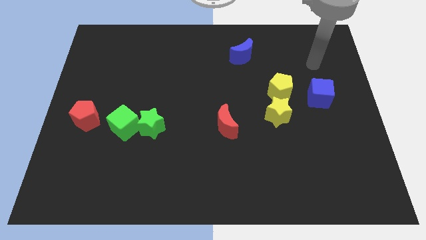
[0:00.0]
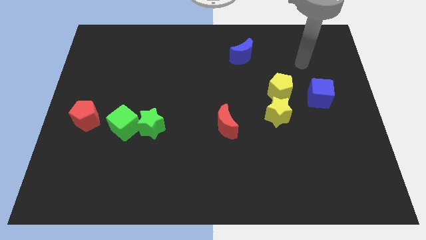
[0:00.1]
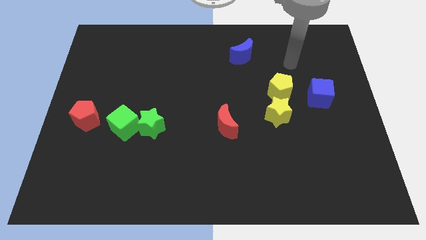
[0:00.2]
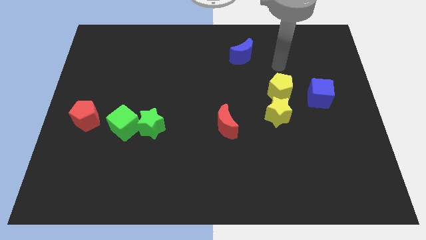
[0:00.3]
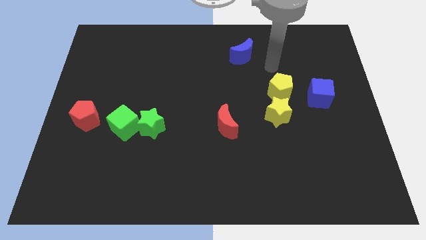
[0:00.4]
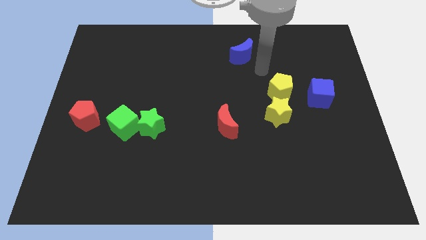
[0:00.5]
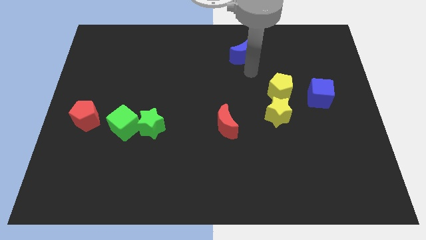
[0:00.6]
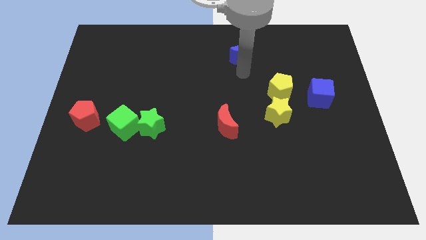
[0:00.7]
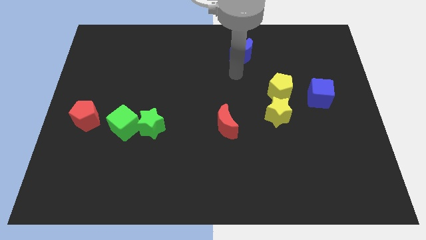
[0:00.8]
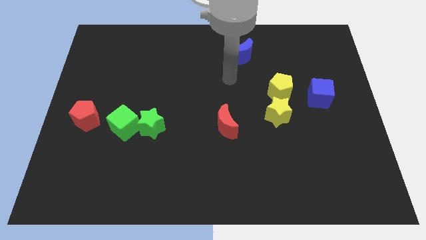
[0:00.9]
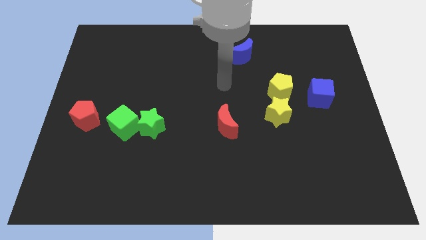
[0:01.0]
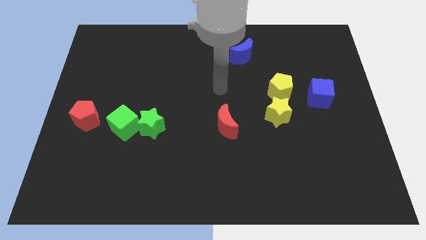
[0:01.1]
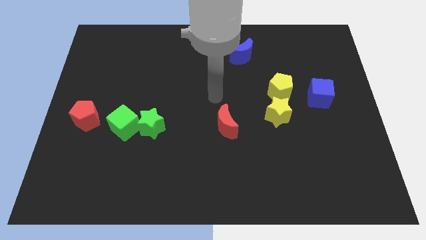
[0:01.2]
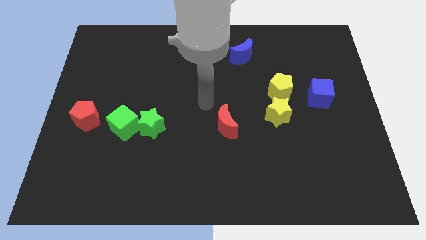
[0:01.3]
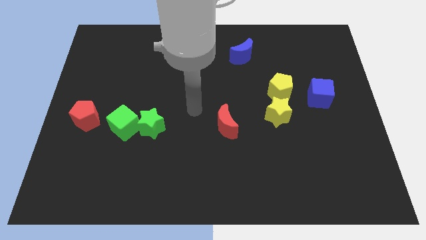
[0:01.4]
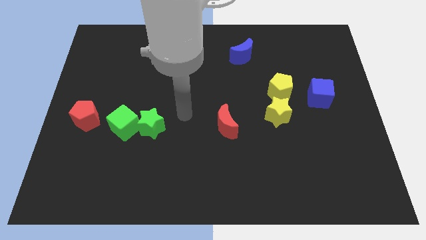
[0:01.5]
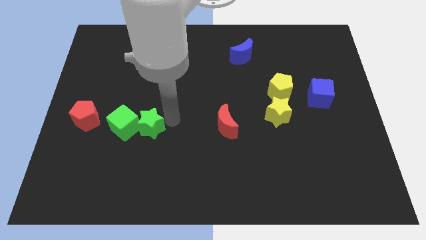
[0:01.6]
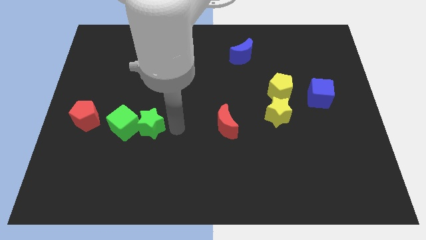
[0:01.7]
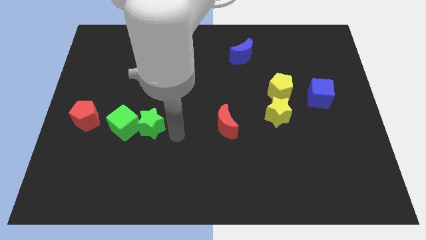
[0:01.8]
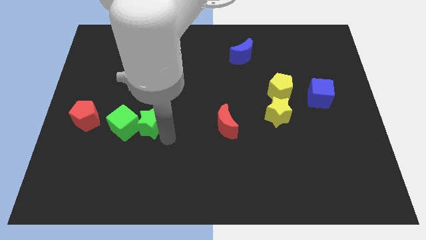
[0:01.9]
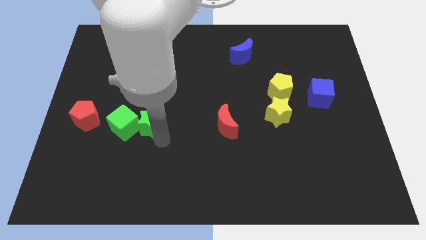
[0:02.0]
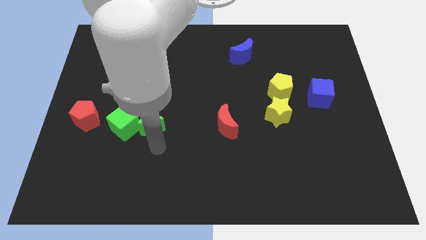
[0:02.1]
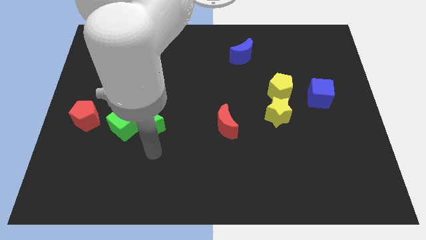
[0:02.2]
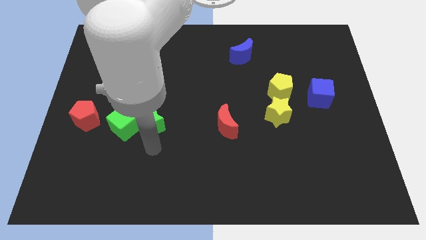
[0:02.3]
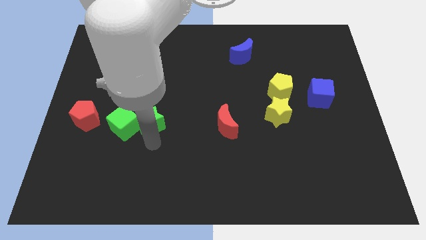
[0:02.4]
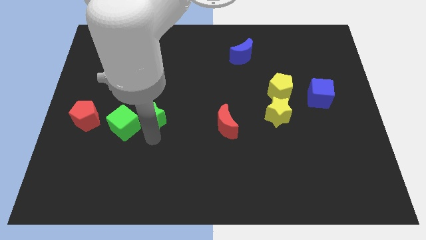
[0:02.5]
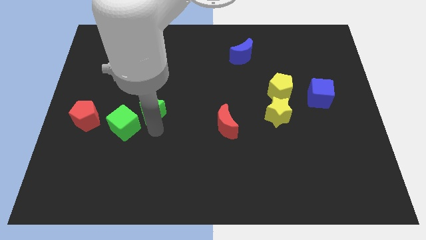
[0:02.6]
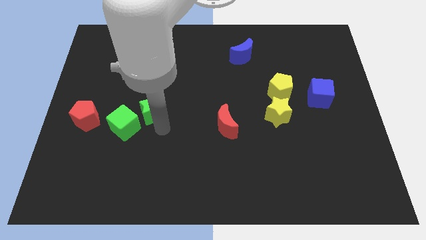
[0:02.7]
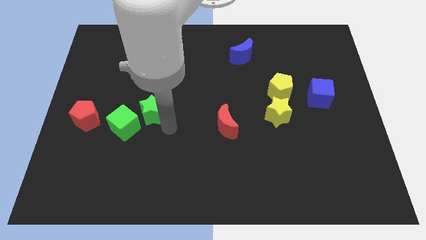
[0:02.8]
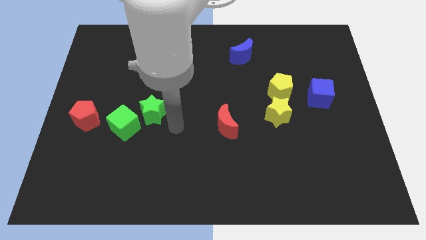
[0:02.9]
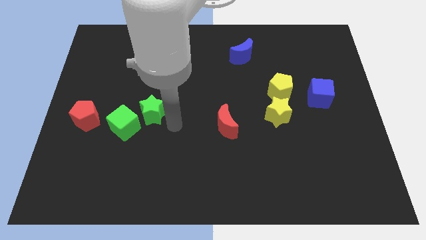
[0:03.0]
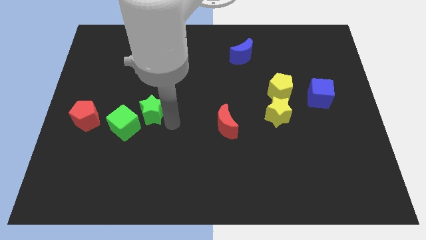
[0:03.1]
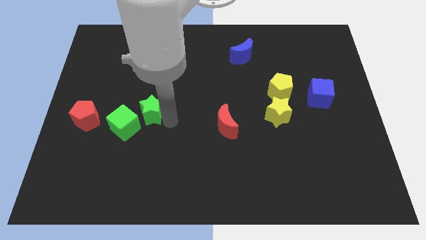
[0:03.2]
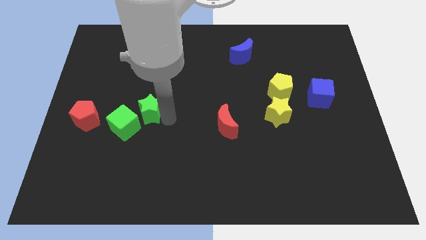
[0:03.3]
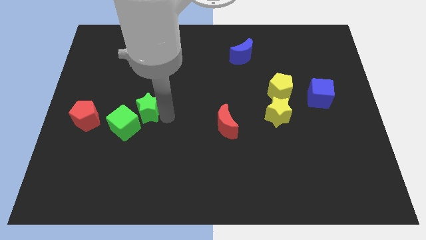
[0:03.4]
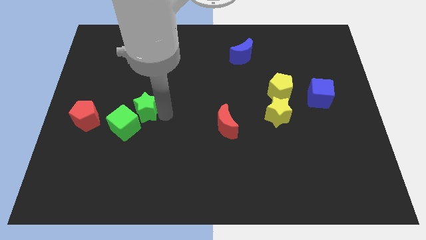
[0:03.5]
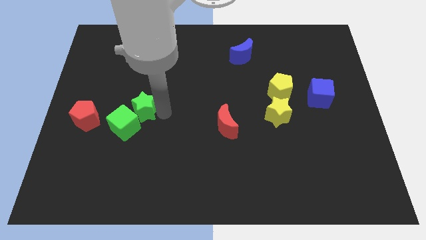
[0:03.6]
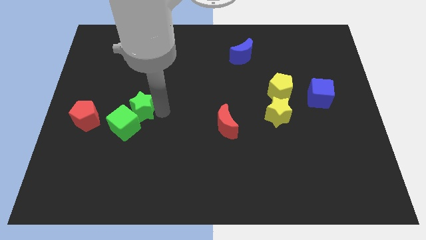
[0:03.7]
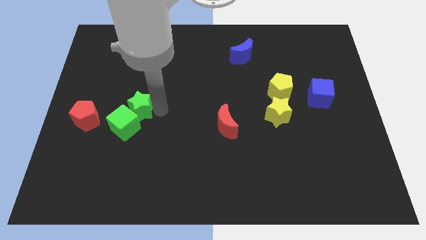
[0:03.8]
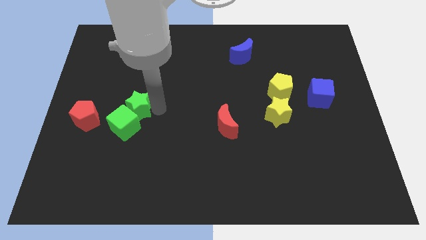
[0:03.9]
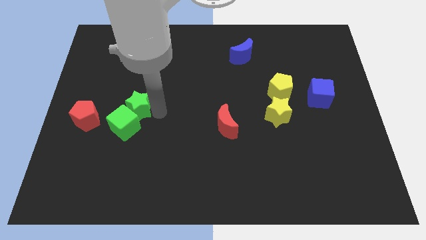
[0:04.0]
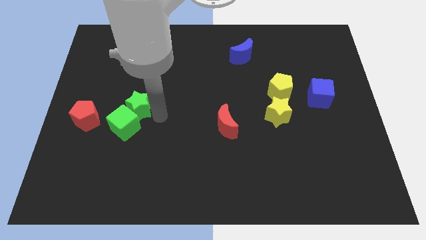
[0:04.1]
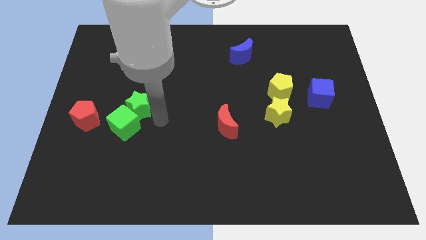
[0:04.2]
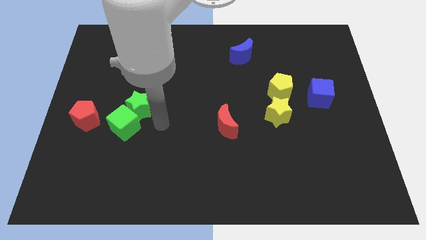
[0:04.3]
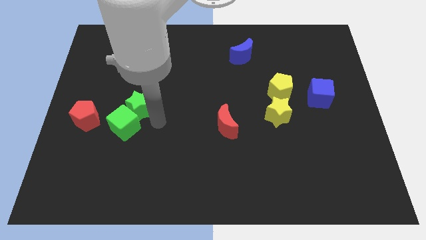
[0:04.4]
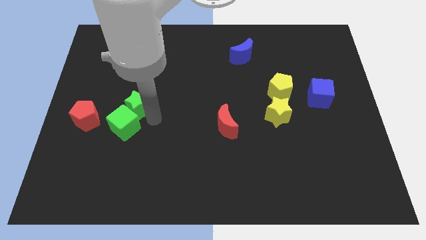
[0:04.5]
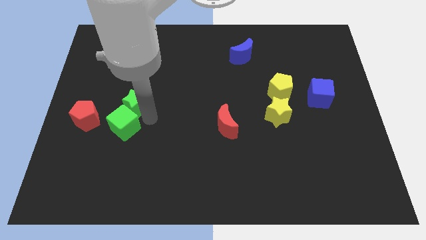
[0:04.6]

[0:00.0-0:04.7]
push the green star diagonally up and to the left somewhat

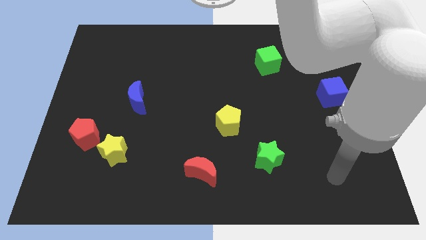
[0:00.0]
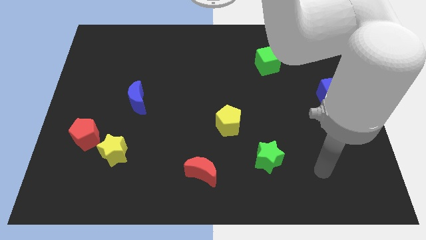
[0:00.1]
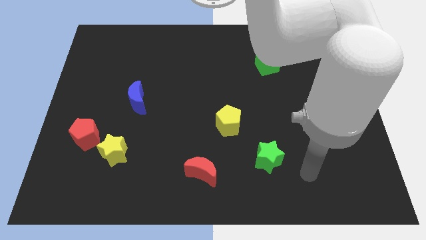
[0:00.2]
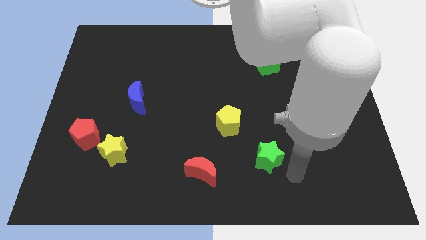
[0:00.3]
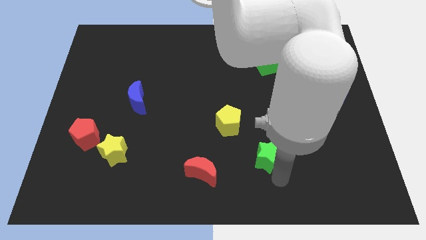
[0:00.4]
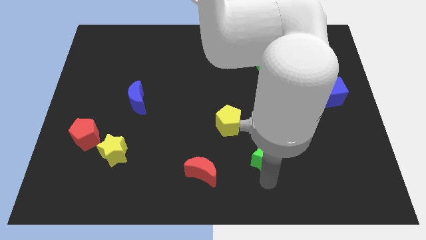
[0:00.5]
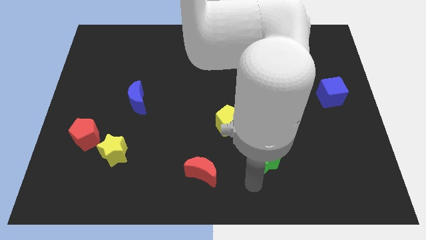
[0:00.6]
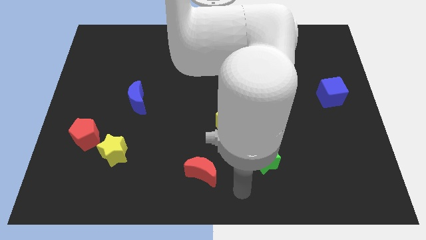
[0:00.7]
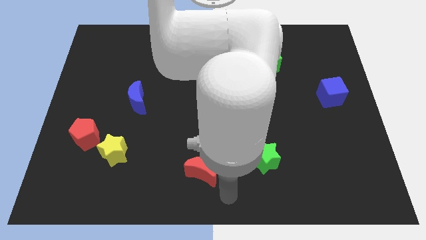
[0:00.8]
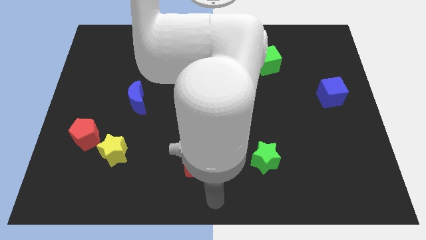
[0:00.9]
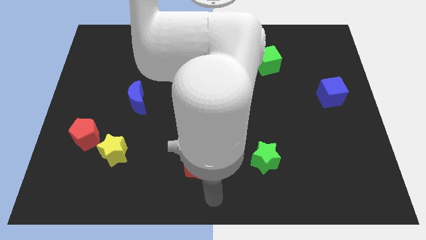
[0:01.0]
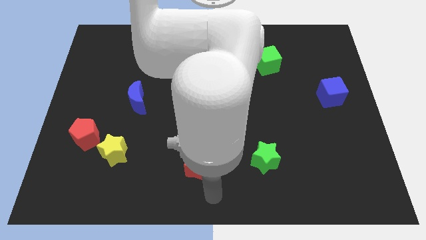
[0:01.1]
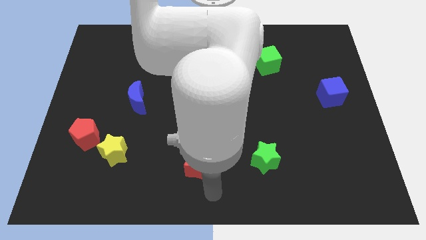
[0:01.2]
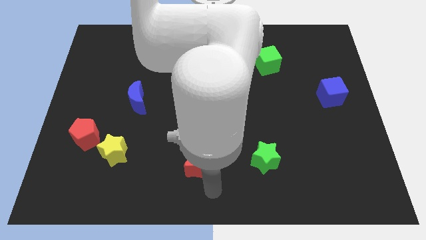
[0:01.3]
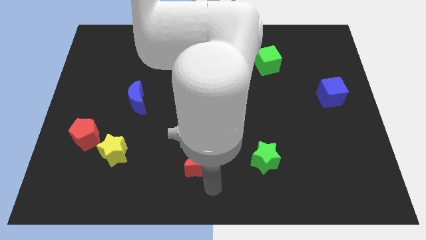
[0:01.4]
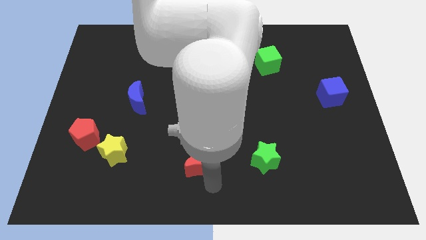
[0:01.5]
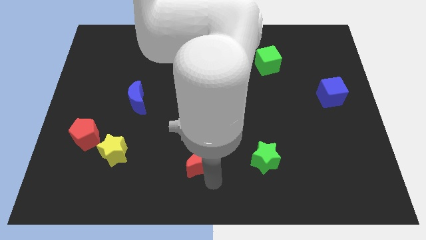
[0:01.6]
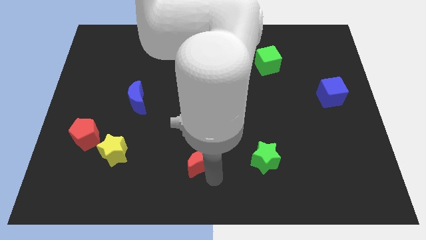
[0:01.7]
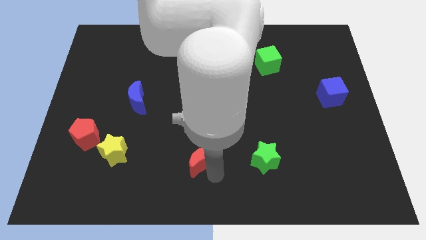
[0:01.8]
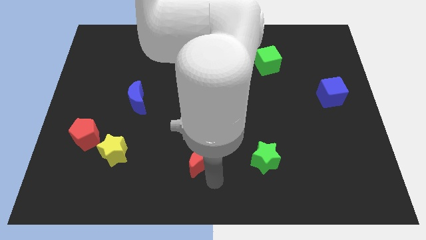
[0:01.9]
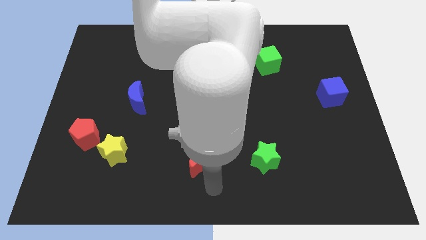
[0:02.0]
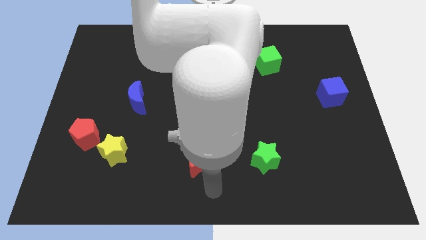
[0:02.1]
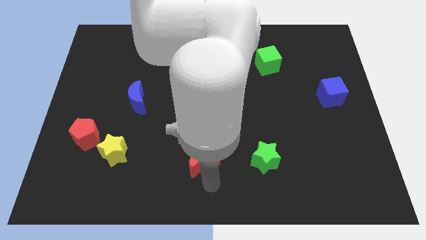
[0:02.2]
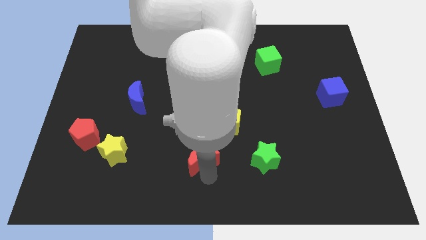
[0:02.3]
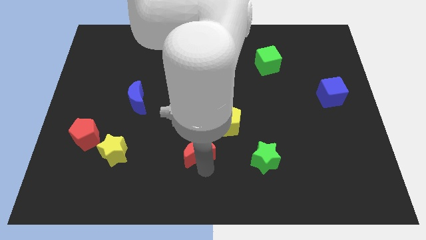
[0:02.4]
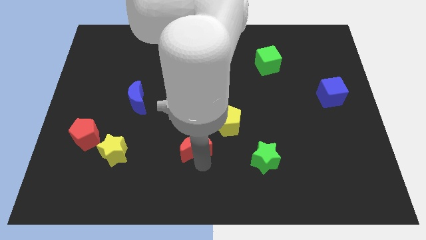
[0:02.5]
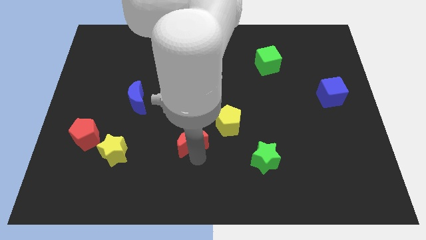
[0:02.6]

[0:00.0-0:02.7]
slide the red moon upwards somewhat

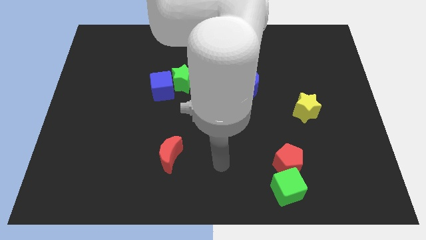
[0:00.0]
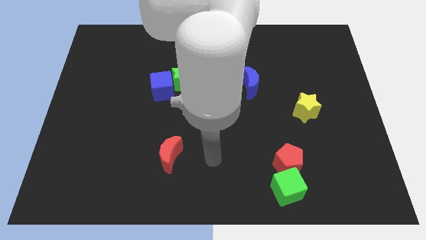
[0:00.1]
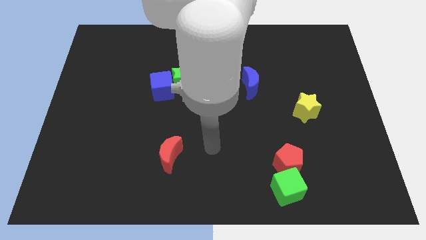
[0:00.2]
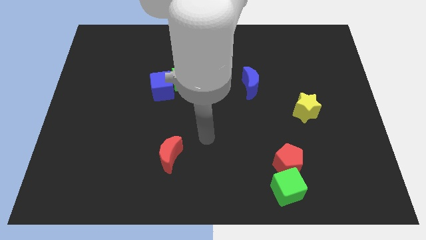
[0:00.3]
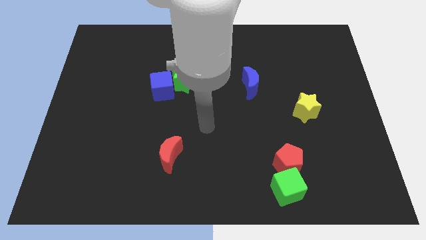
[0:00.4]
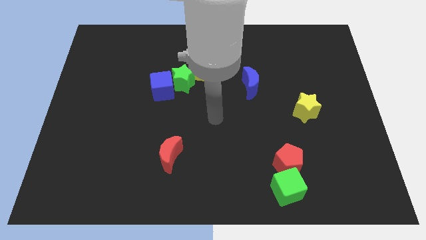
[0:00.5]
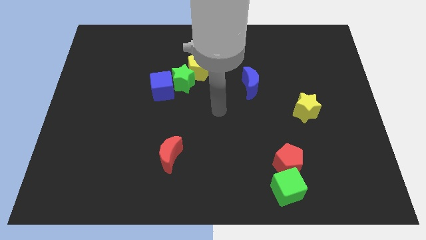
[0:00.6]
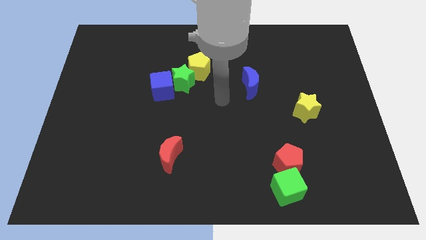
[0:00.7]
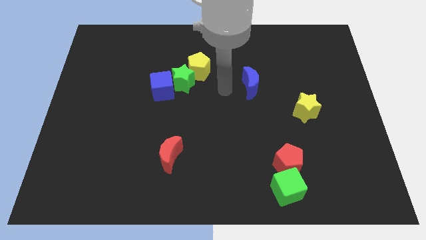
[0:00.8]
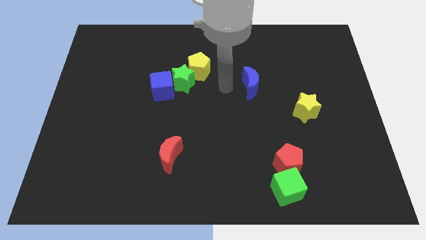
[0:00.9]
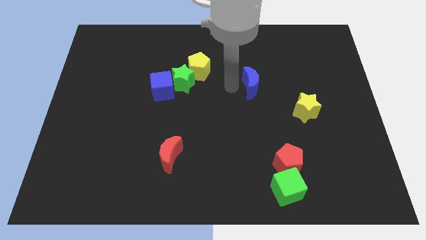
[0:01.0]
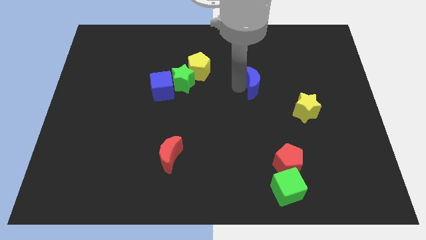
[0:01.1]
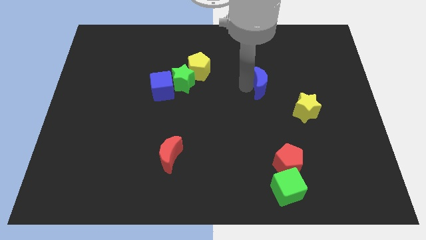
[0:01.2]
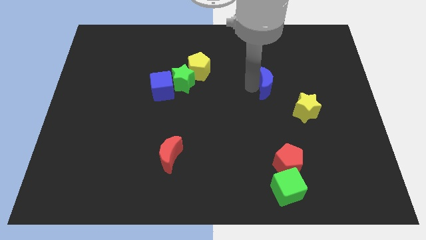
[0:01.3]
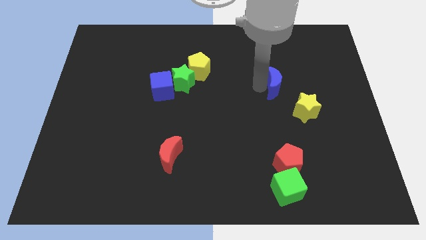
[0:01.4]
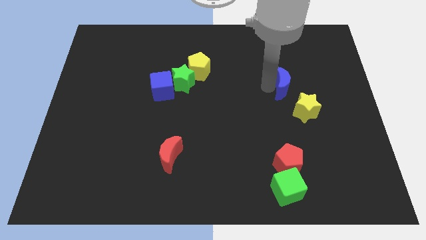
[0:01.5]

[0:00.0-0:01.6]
move the blue moon a bit to the right
